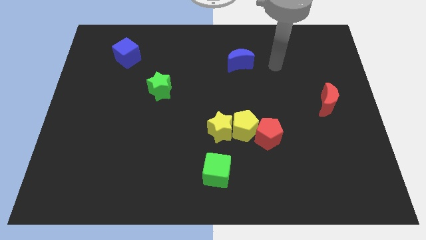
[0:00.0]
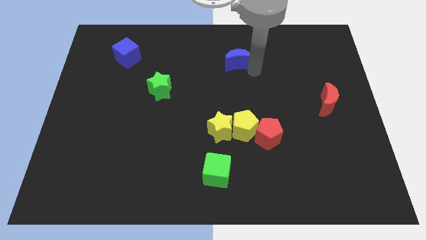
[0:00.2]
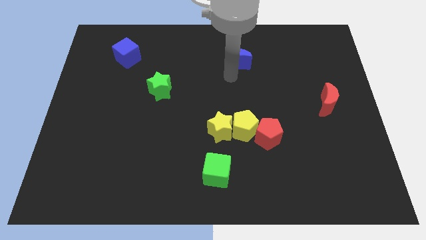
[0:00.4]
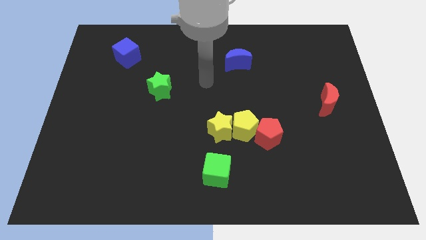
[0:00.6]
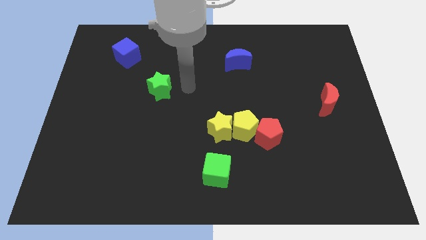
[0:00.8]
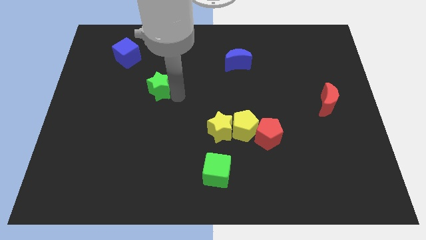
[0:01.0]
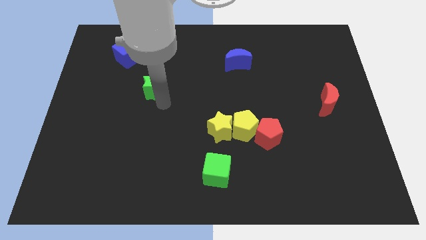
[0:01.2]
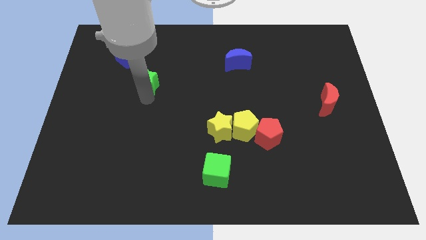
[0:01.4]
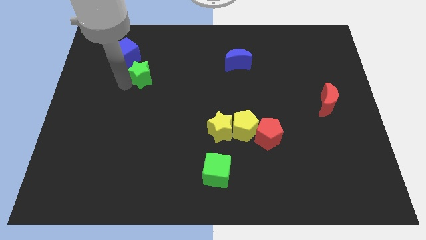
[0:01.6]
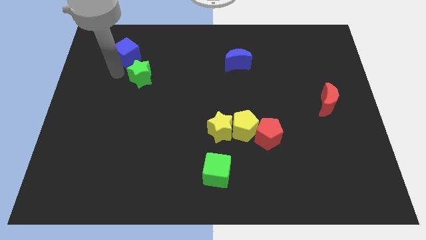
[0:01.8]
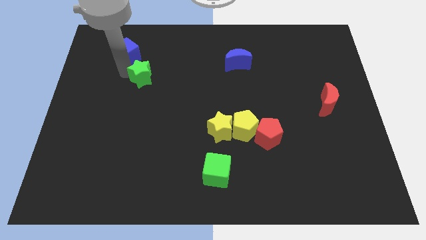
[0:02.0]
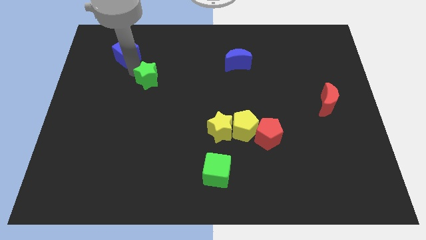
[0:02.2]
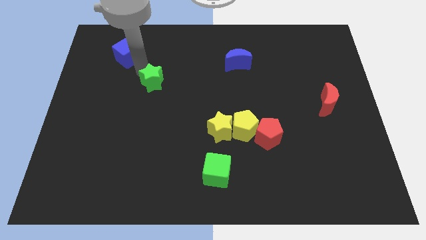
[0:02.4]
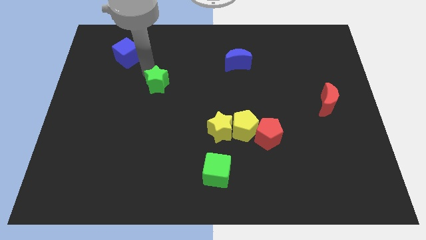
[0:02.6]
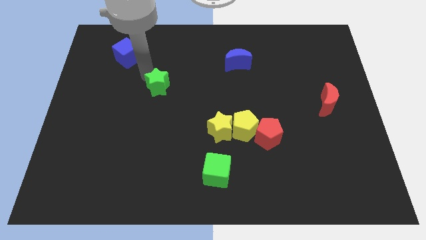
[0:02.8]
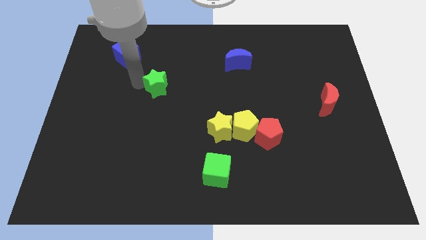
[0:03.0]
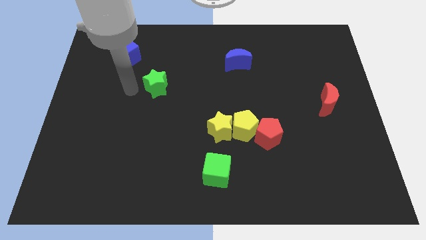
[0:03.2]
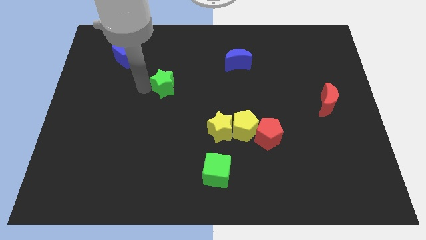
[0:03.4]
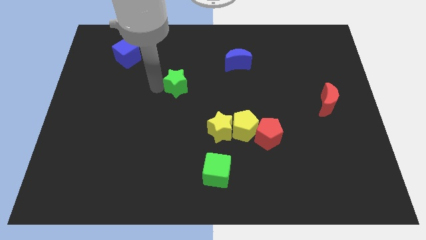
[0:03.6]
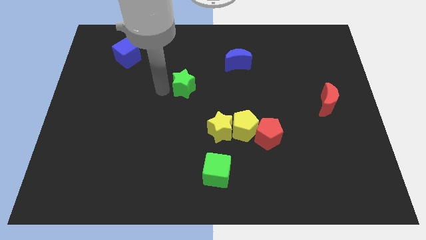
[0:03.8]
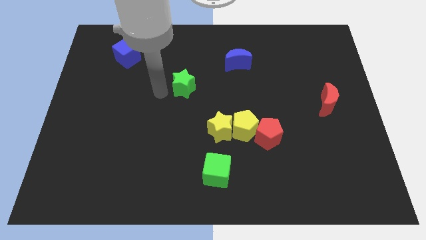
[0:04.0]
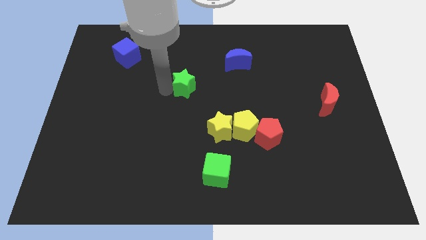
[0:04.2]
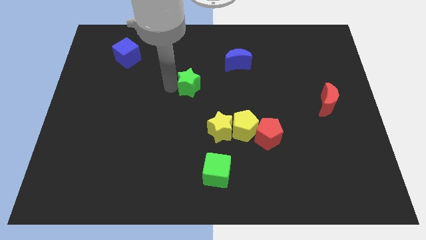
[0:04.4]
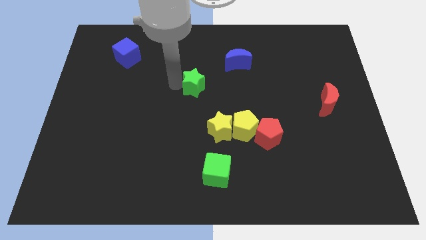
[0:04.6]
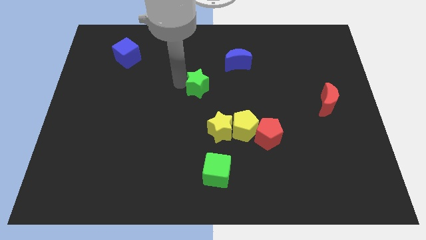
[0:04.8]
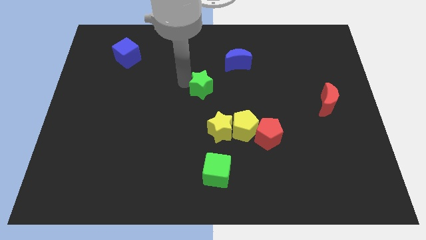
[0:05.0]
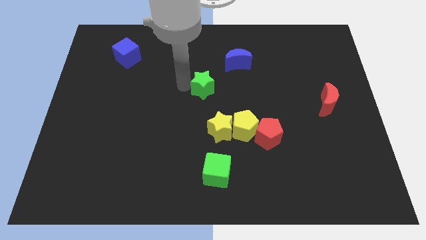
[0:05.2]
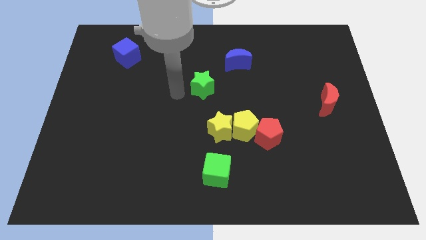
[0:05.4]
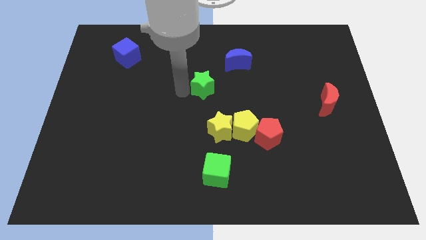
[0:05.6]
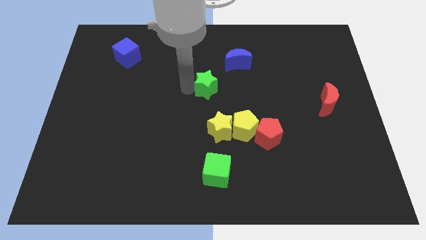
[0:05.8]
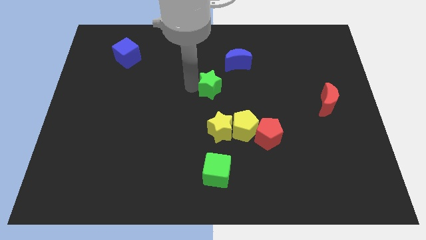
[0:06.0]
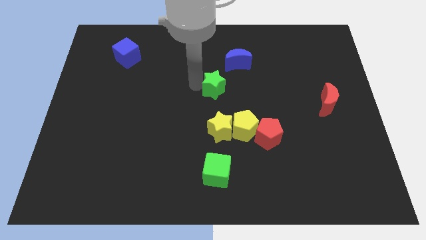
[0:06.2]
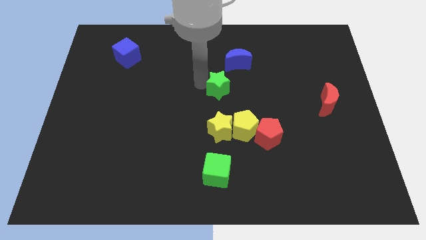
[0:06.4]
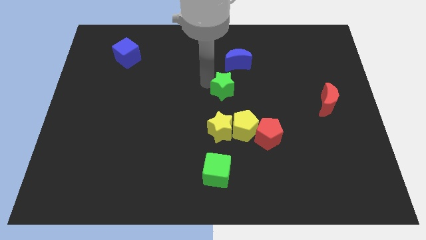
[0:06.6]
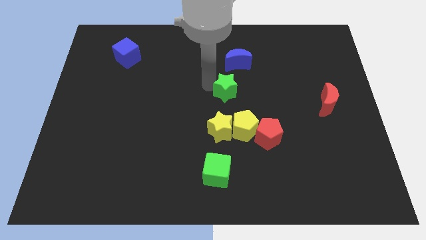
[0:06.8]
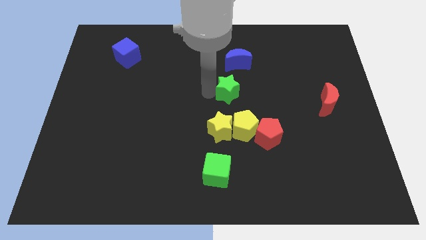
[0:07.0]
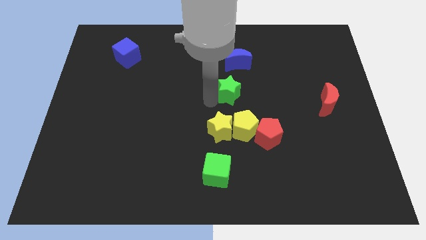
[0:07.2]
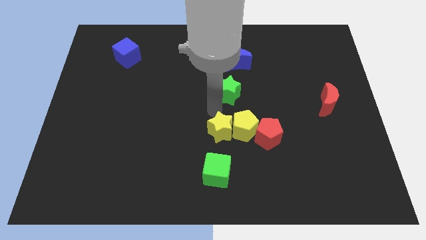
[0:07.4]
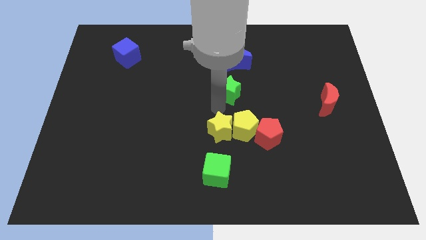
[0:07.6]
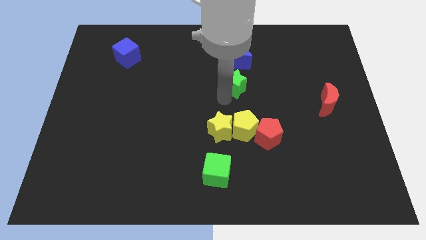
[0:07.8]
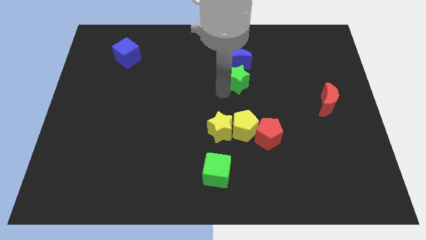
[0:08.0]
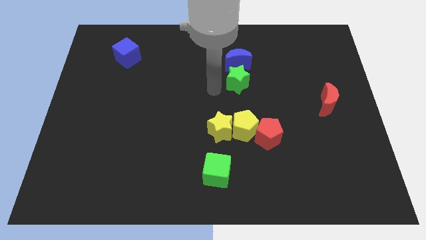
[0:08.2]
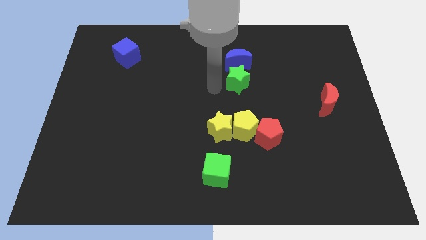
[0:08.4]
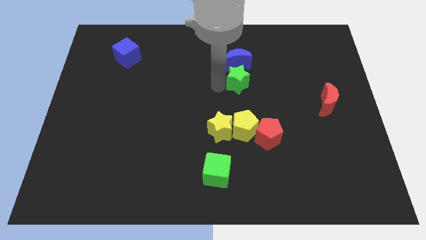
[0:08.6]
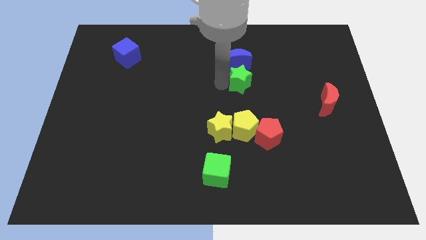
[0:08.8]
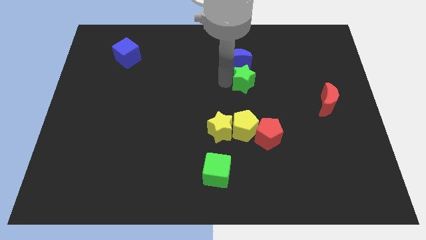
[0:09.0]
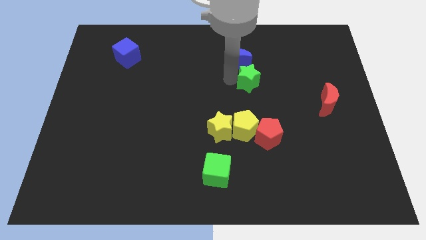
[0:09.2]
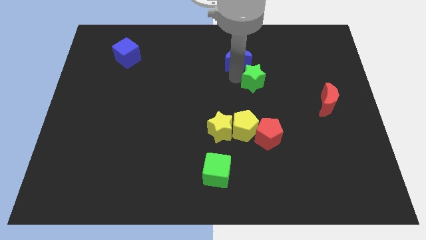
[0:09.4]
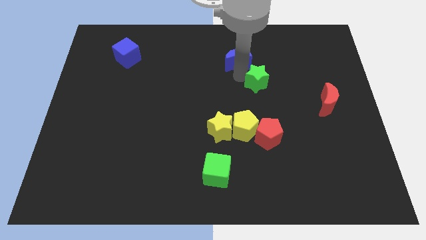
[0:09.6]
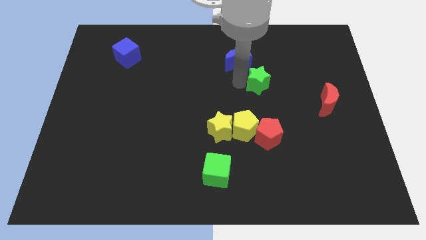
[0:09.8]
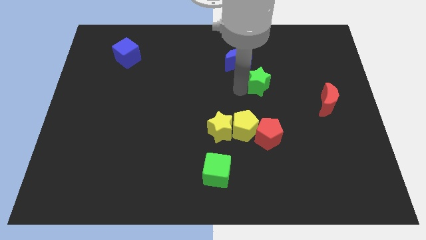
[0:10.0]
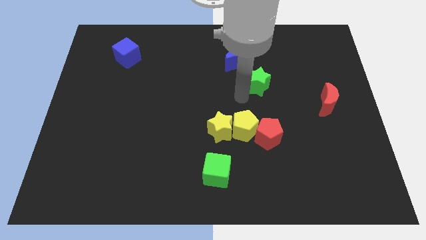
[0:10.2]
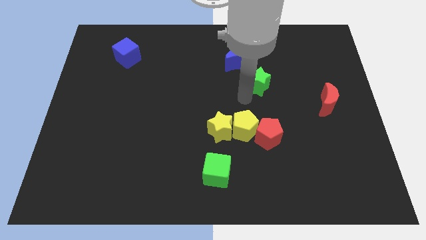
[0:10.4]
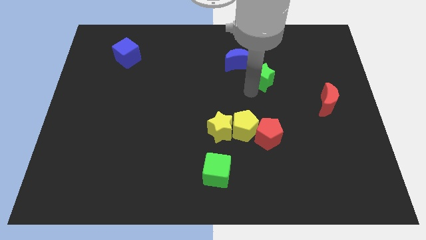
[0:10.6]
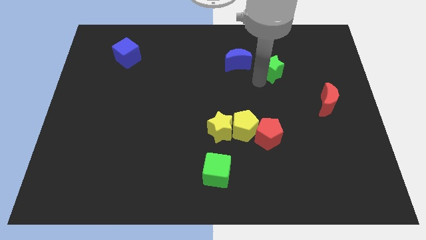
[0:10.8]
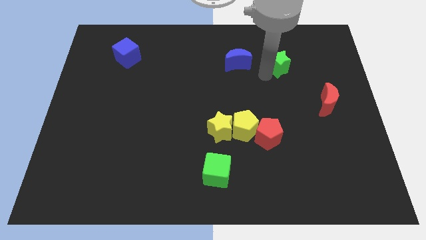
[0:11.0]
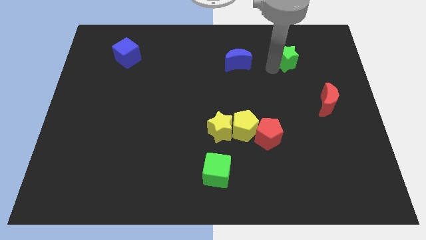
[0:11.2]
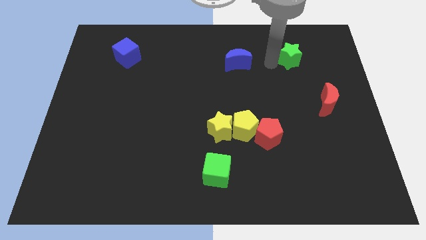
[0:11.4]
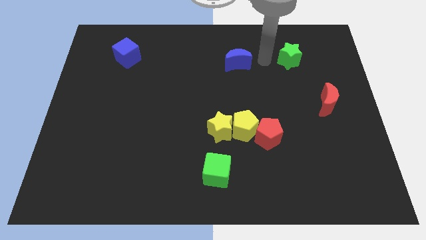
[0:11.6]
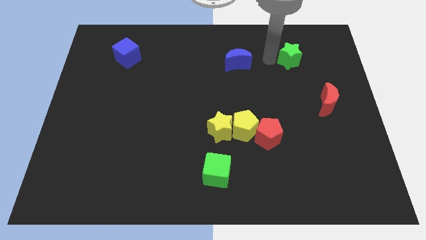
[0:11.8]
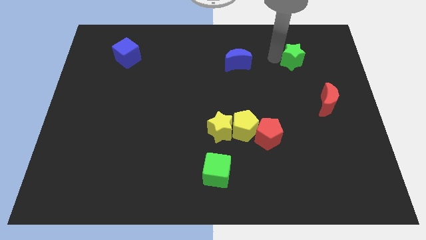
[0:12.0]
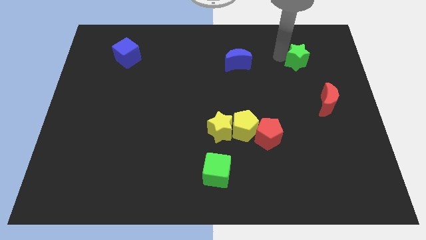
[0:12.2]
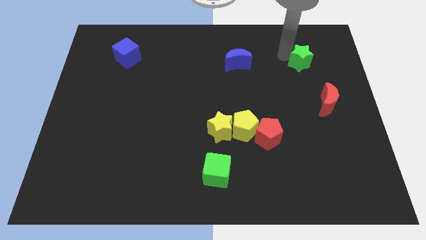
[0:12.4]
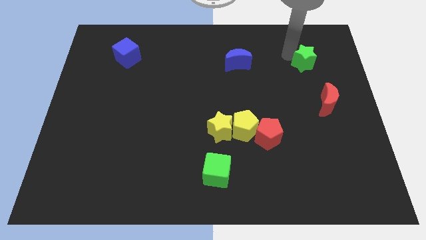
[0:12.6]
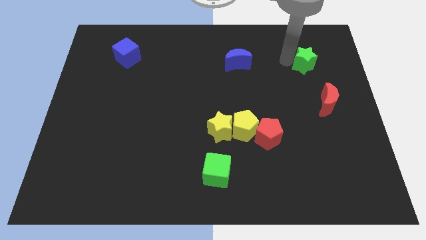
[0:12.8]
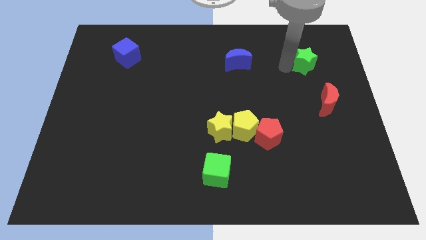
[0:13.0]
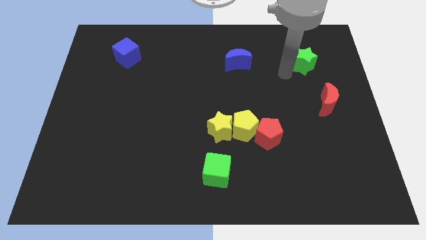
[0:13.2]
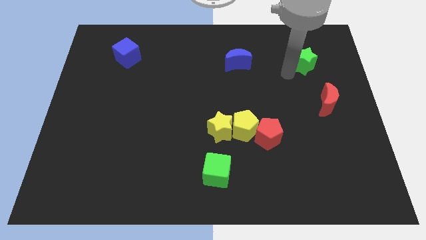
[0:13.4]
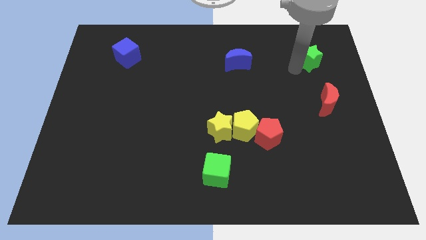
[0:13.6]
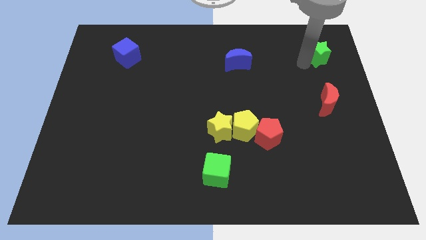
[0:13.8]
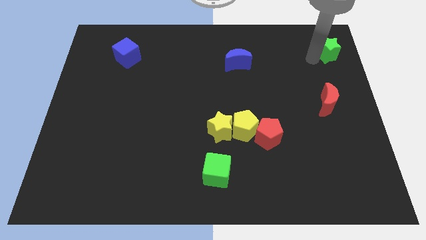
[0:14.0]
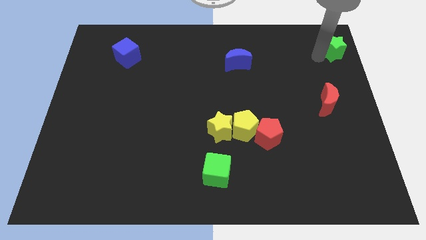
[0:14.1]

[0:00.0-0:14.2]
push the green star to the top right corner
